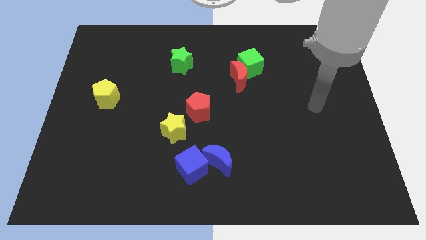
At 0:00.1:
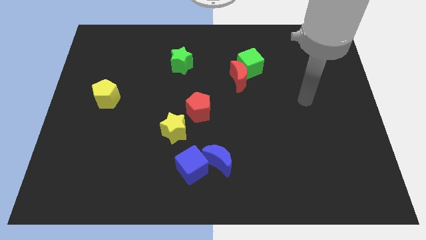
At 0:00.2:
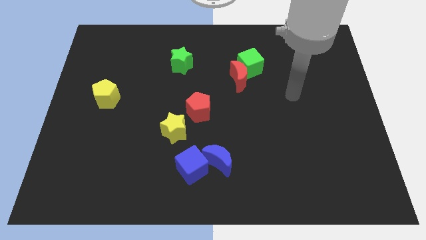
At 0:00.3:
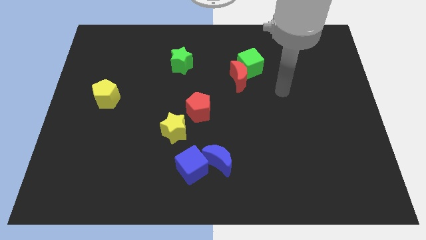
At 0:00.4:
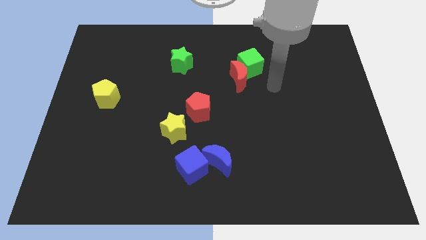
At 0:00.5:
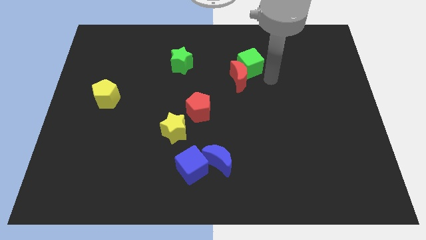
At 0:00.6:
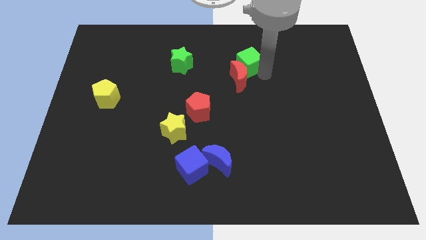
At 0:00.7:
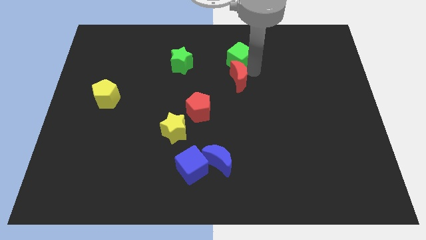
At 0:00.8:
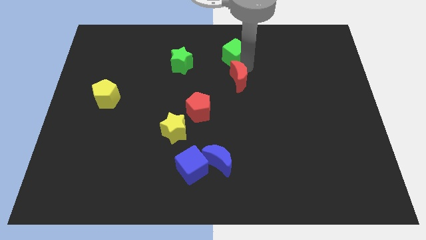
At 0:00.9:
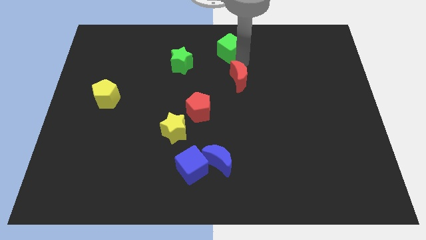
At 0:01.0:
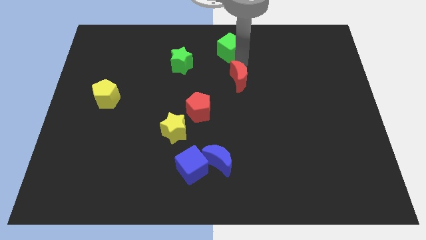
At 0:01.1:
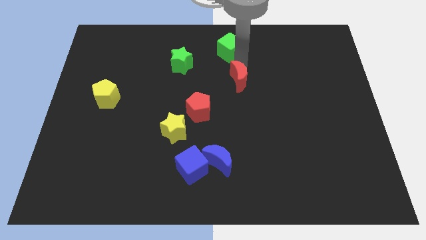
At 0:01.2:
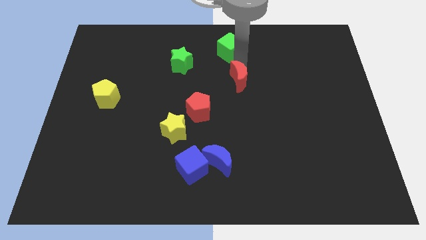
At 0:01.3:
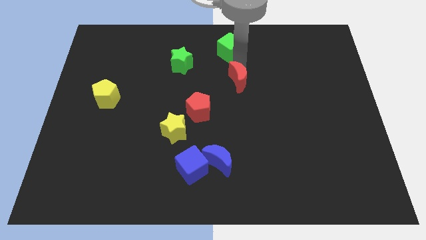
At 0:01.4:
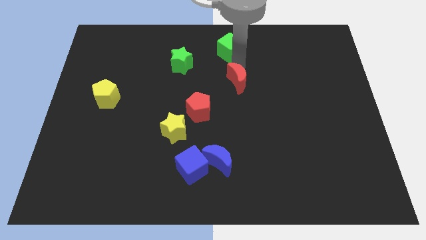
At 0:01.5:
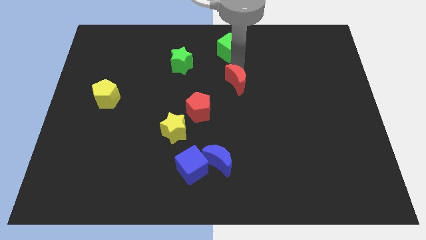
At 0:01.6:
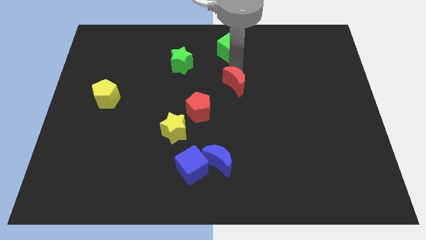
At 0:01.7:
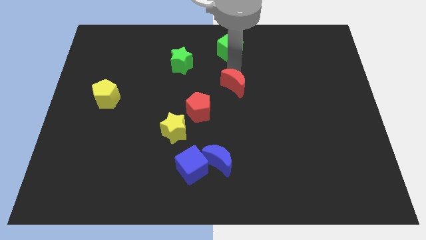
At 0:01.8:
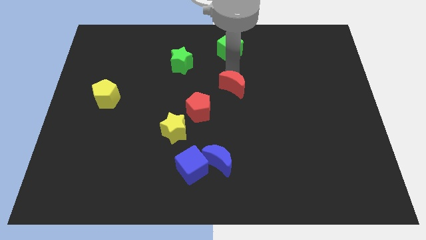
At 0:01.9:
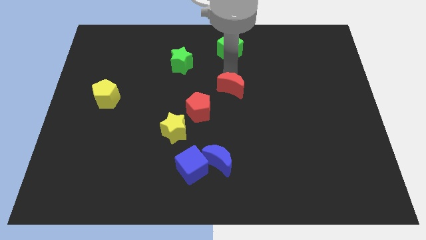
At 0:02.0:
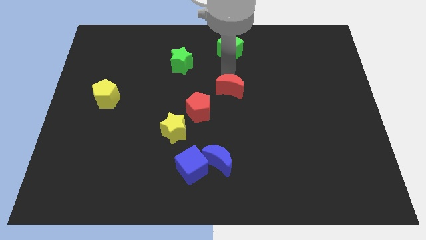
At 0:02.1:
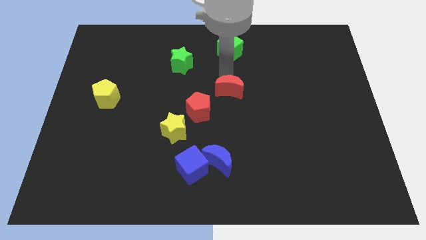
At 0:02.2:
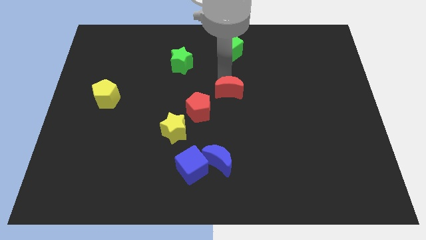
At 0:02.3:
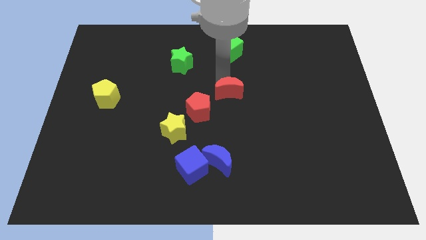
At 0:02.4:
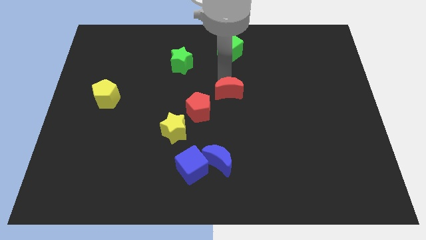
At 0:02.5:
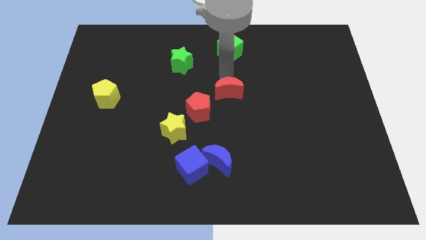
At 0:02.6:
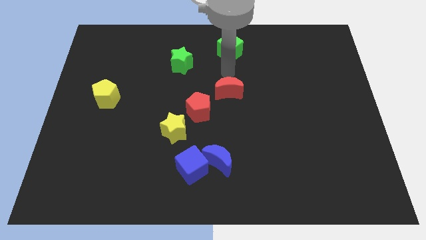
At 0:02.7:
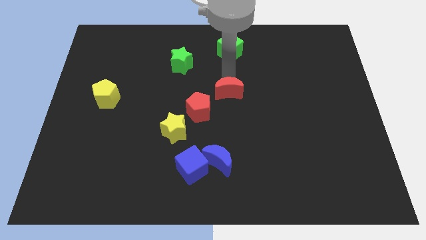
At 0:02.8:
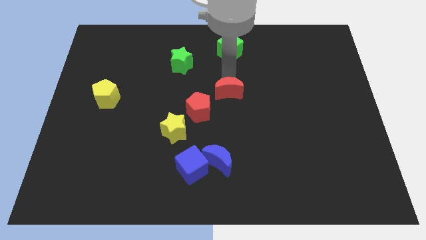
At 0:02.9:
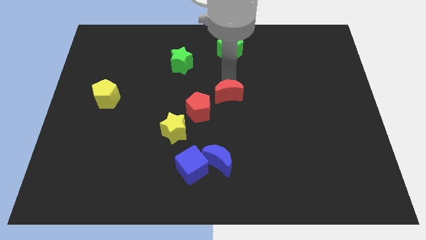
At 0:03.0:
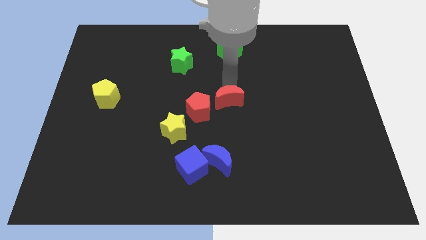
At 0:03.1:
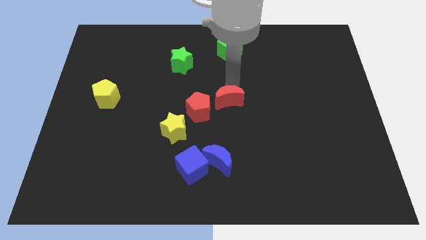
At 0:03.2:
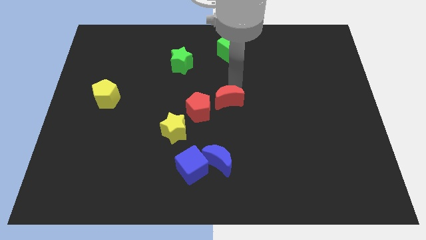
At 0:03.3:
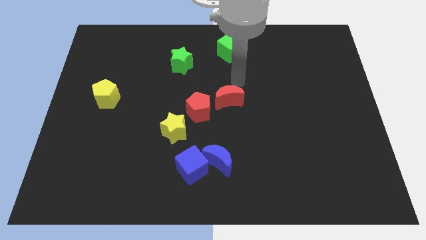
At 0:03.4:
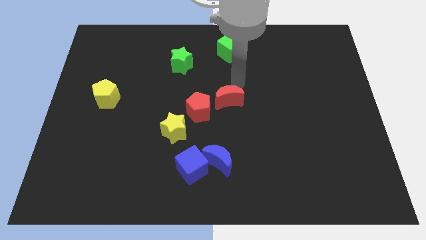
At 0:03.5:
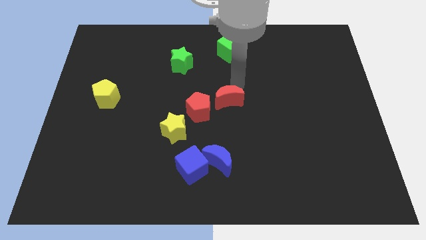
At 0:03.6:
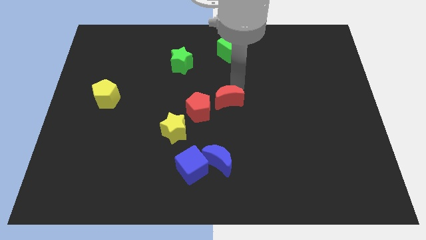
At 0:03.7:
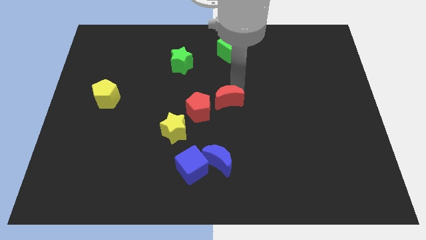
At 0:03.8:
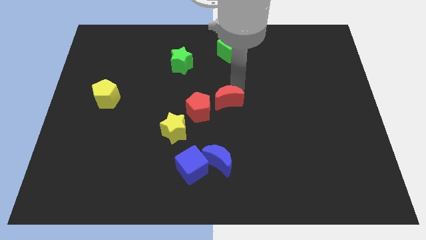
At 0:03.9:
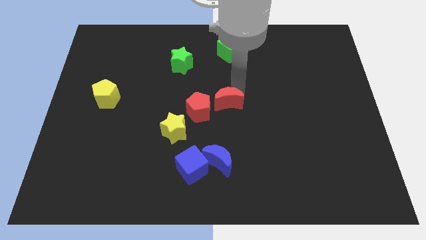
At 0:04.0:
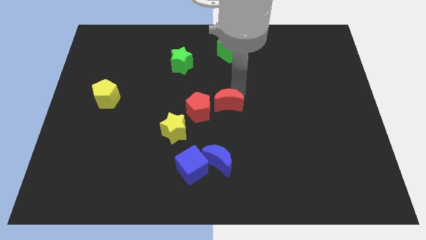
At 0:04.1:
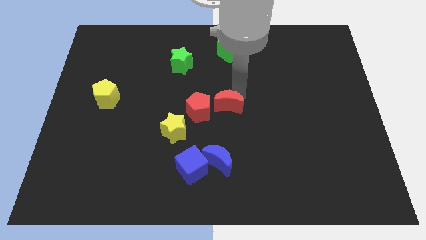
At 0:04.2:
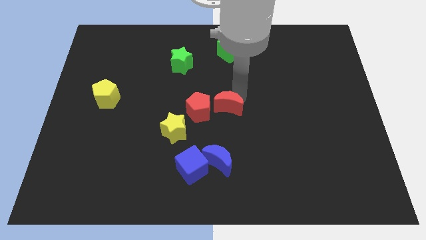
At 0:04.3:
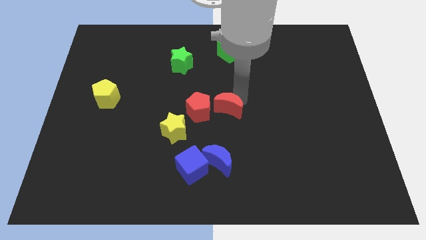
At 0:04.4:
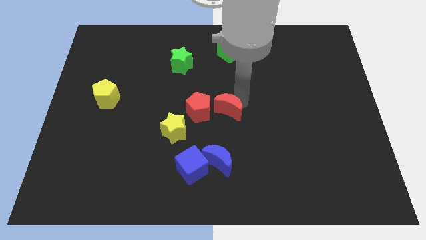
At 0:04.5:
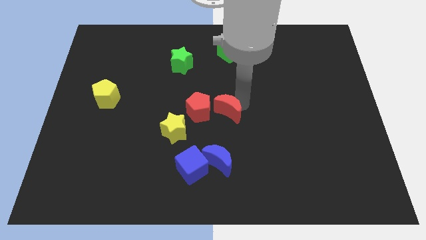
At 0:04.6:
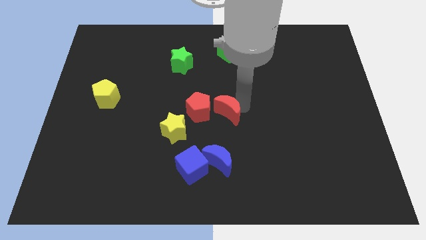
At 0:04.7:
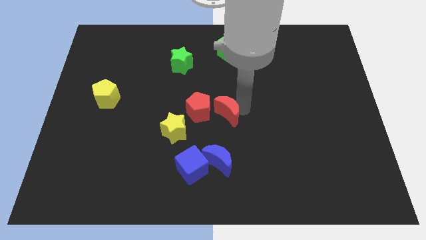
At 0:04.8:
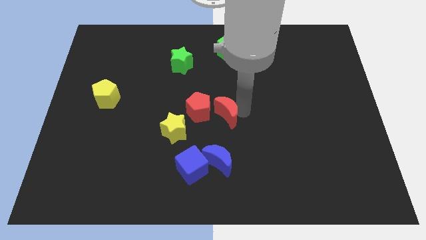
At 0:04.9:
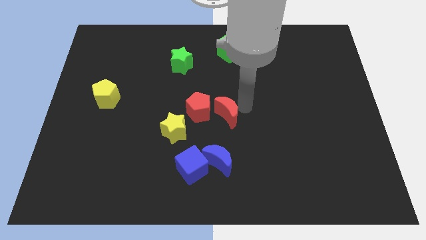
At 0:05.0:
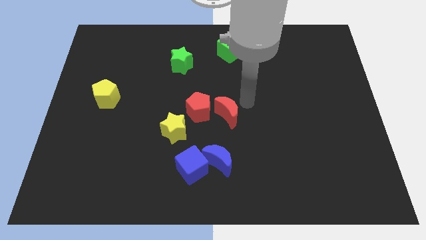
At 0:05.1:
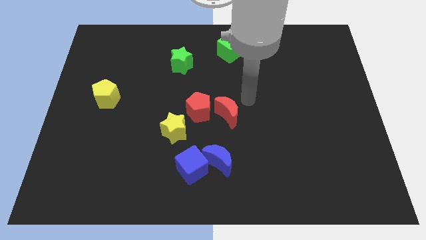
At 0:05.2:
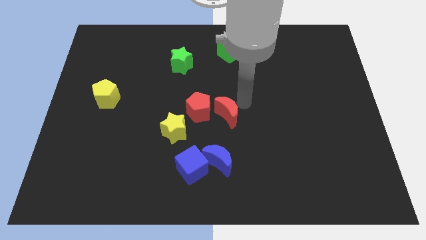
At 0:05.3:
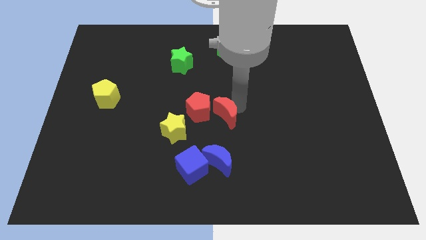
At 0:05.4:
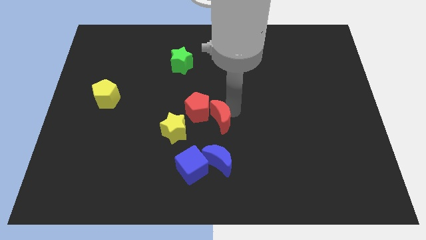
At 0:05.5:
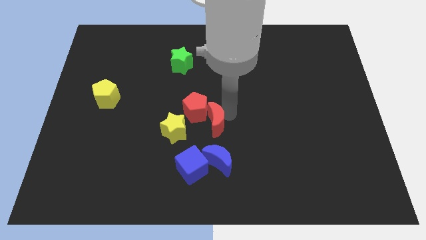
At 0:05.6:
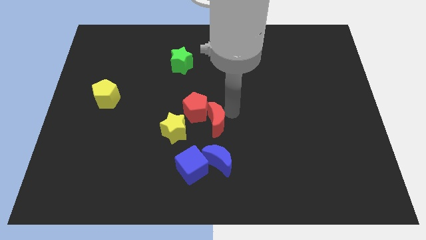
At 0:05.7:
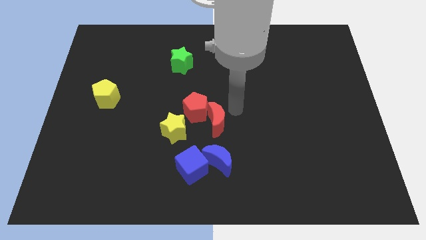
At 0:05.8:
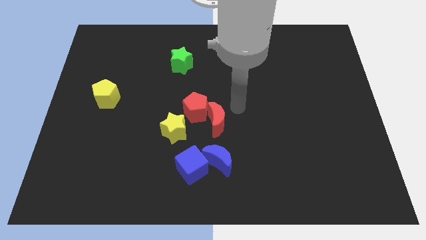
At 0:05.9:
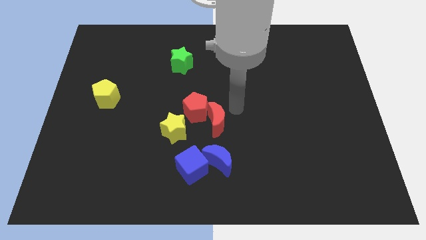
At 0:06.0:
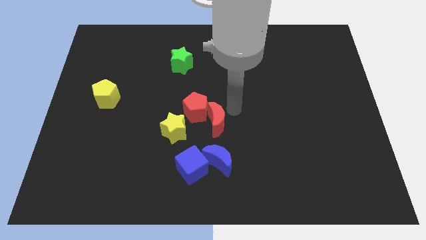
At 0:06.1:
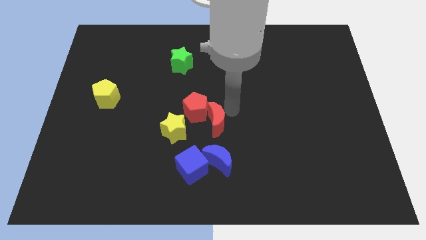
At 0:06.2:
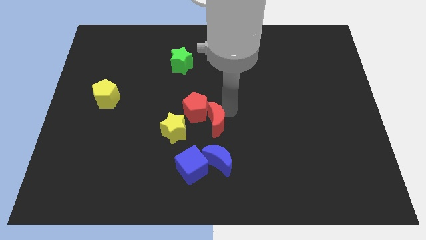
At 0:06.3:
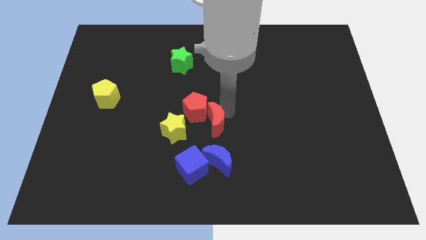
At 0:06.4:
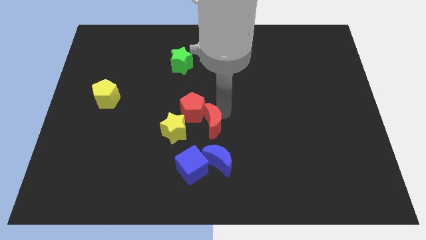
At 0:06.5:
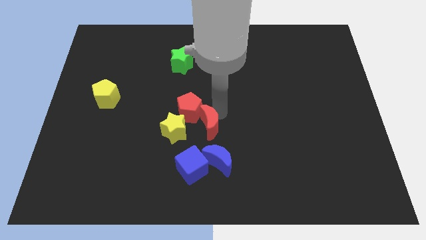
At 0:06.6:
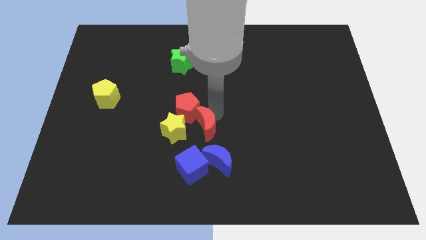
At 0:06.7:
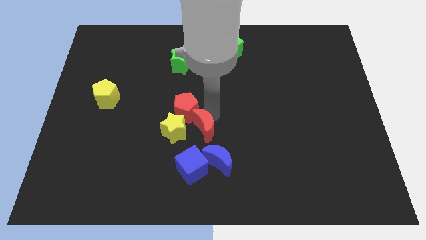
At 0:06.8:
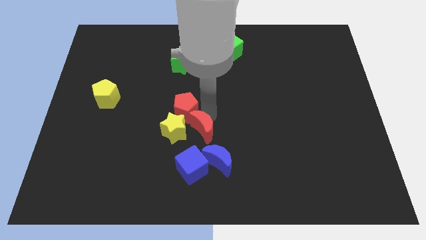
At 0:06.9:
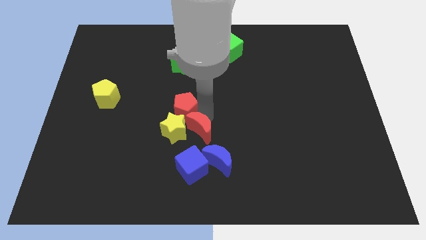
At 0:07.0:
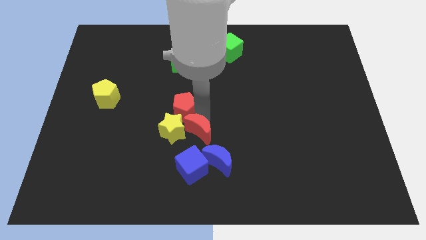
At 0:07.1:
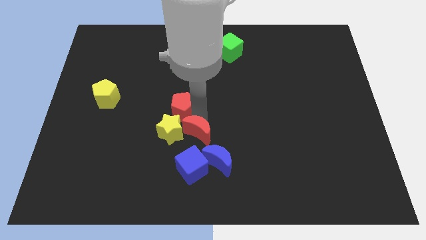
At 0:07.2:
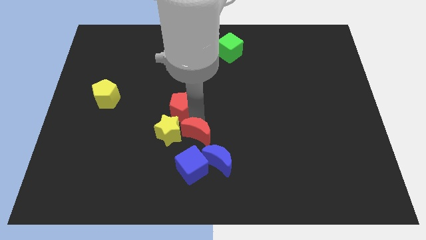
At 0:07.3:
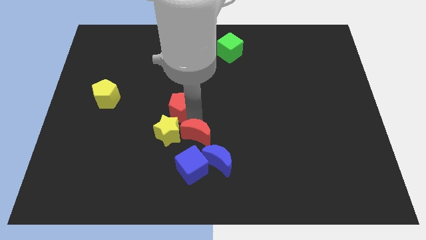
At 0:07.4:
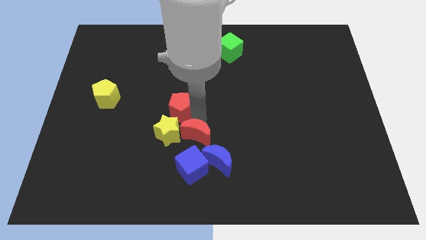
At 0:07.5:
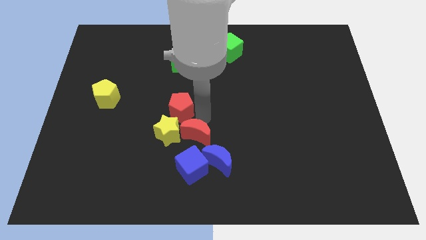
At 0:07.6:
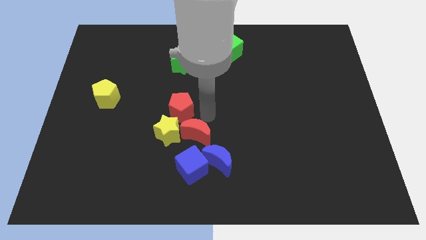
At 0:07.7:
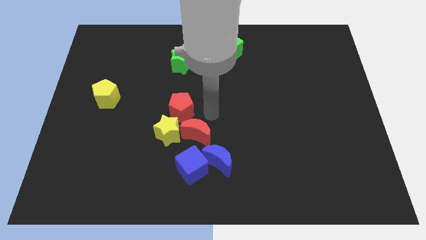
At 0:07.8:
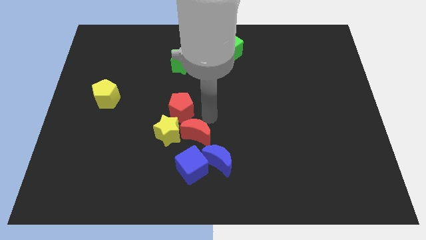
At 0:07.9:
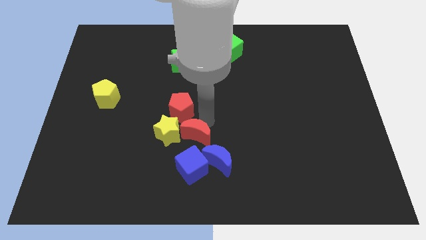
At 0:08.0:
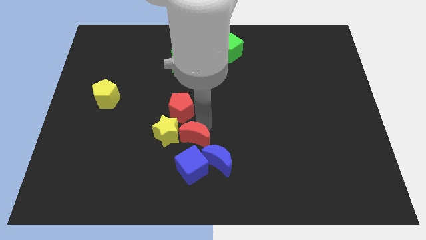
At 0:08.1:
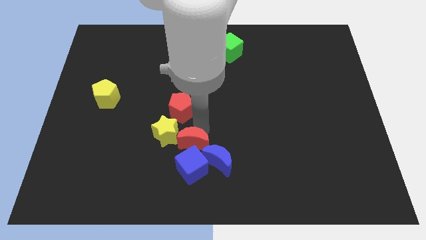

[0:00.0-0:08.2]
move the red moon to the left of the blue moon
